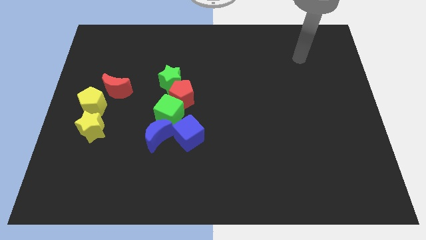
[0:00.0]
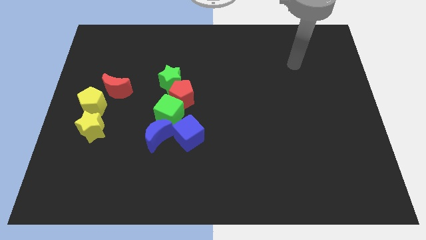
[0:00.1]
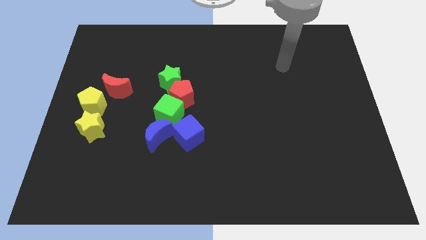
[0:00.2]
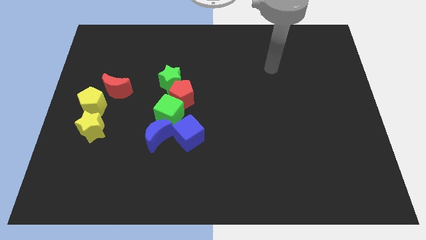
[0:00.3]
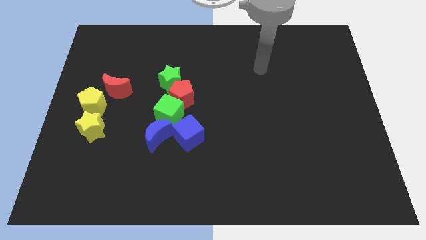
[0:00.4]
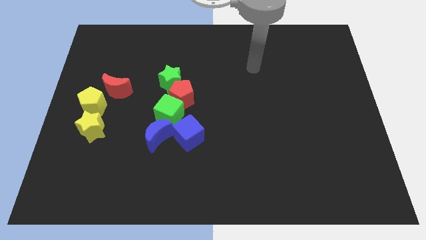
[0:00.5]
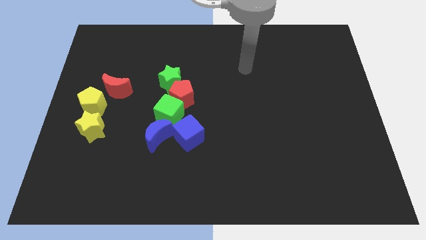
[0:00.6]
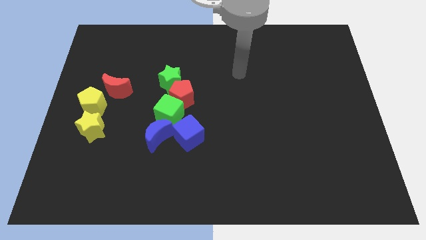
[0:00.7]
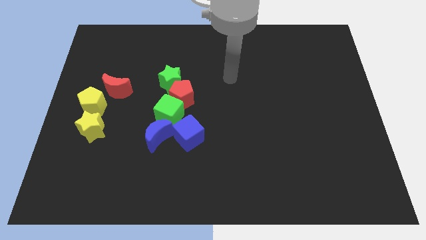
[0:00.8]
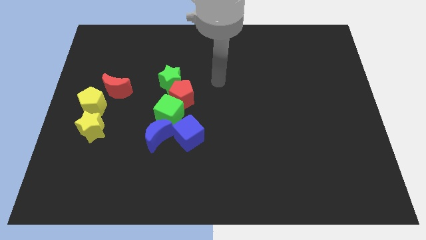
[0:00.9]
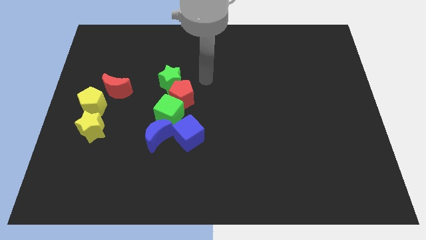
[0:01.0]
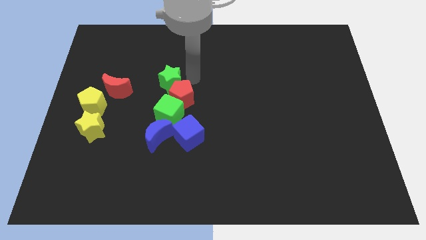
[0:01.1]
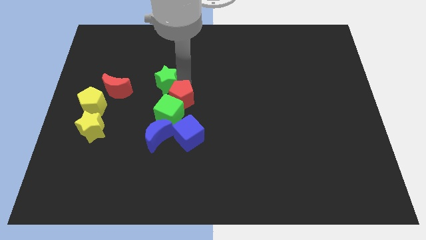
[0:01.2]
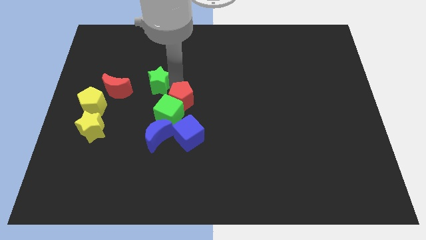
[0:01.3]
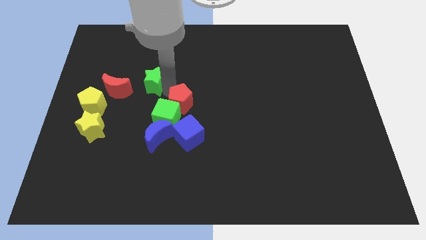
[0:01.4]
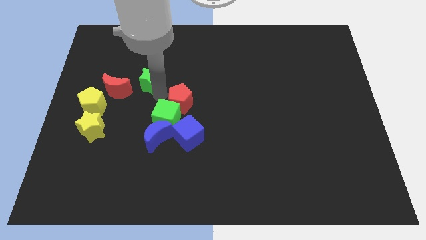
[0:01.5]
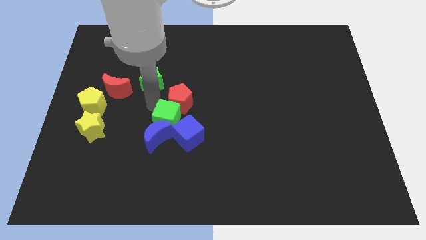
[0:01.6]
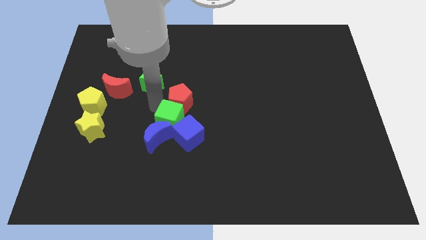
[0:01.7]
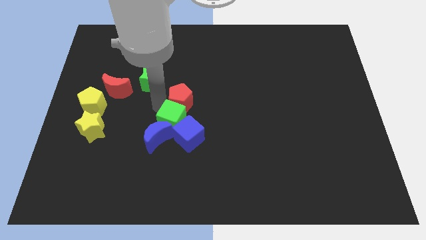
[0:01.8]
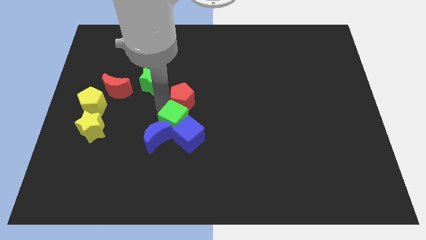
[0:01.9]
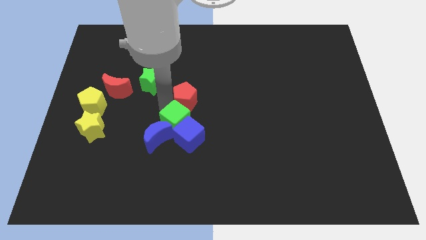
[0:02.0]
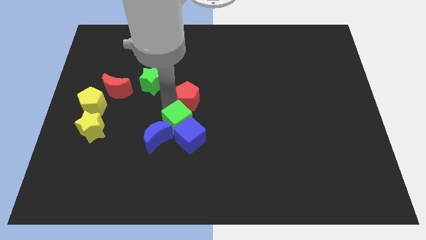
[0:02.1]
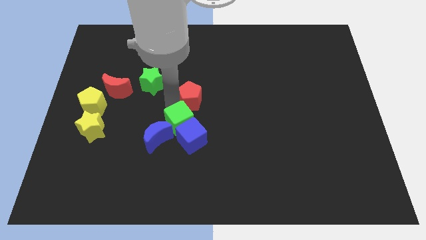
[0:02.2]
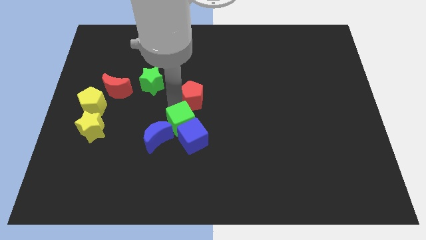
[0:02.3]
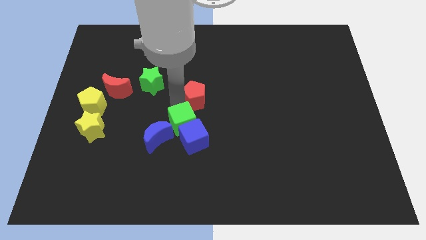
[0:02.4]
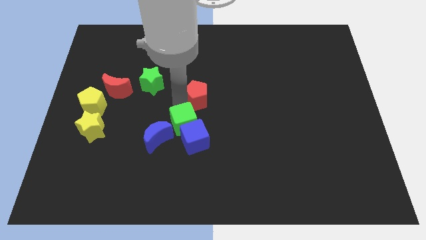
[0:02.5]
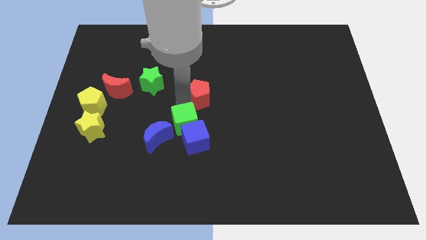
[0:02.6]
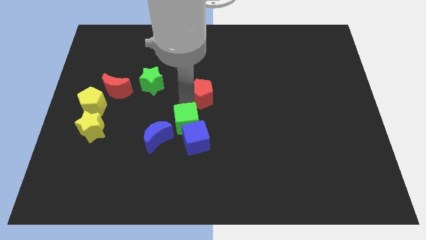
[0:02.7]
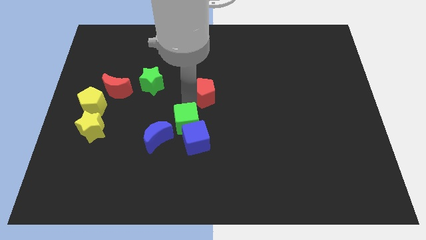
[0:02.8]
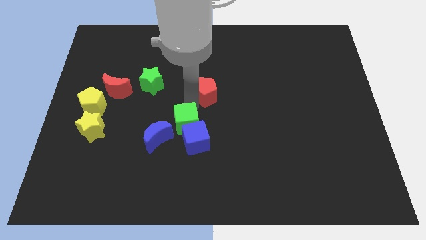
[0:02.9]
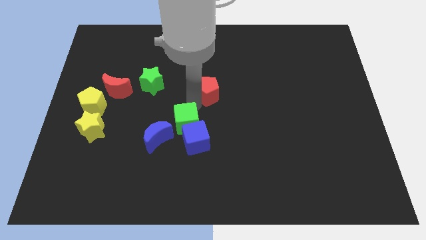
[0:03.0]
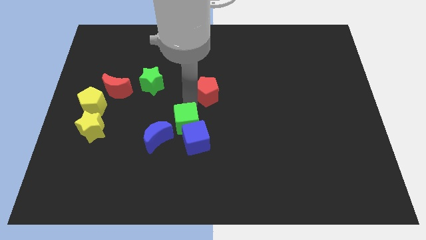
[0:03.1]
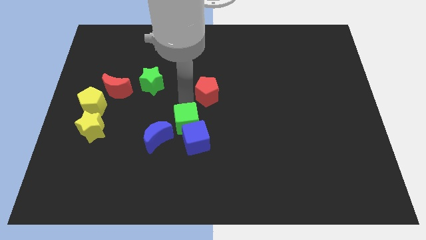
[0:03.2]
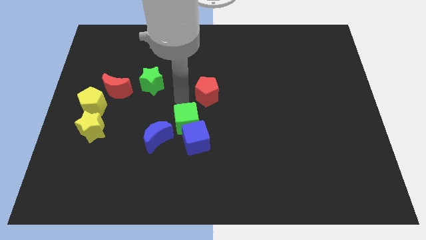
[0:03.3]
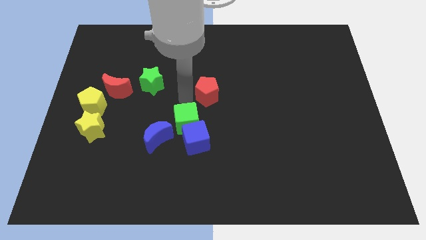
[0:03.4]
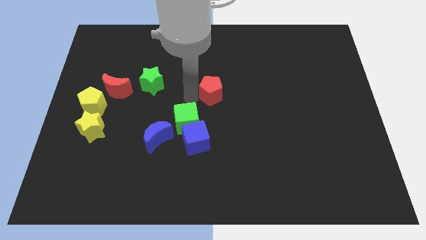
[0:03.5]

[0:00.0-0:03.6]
move the red pentagon away from the green cube and green star

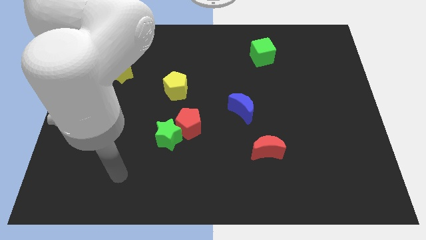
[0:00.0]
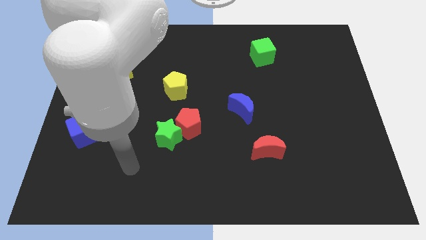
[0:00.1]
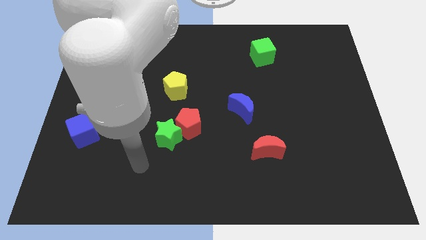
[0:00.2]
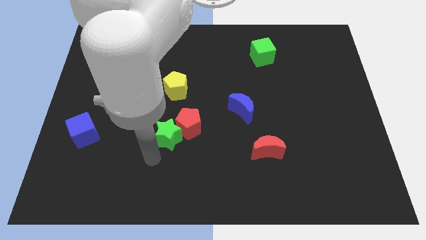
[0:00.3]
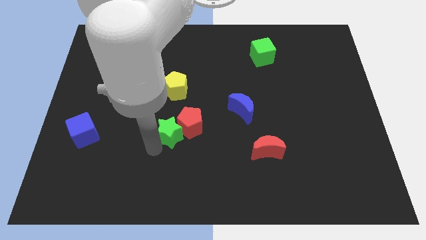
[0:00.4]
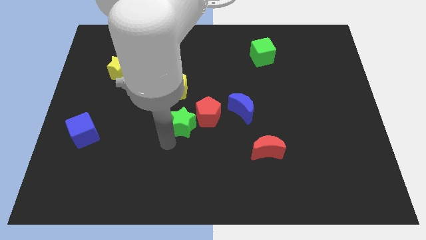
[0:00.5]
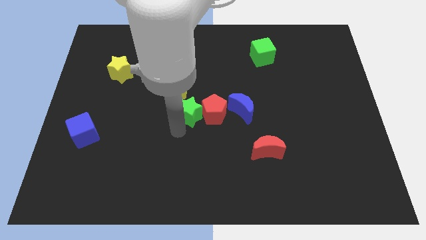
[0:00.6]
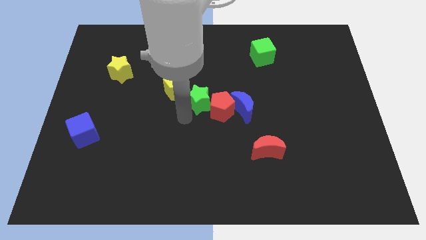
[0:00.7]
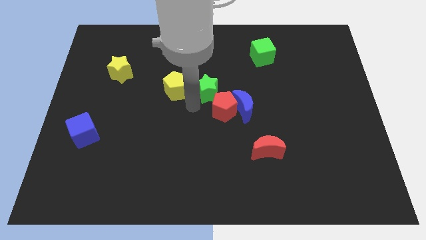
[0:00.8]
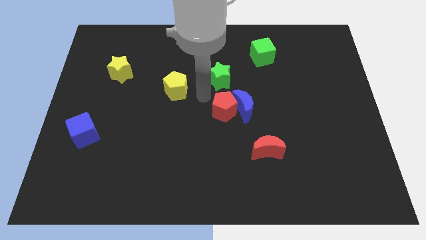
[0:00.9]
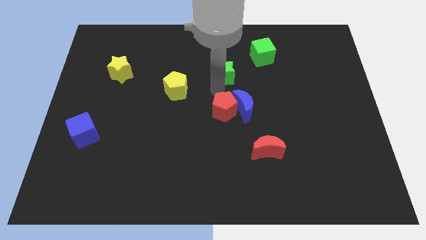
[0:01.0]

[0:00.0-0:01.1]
move the red pentagon away from the green star

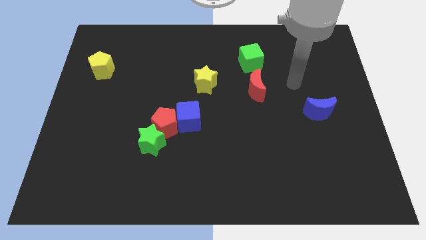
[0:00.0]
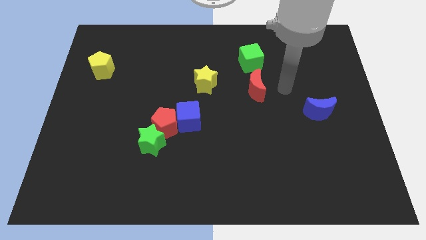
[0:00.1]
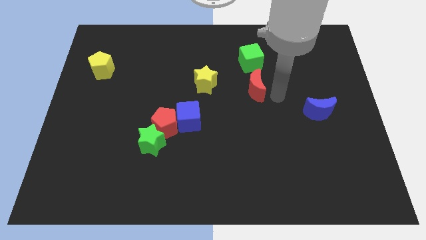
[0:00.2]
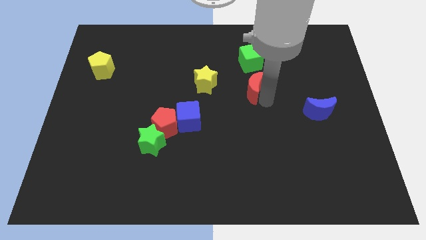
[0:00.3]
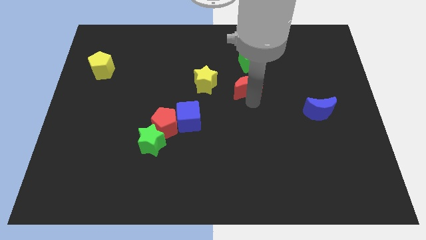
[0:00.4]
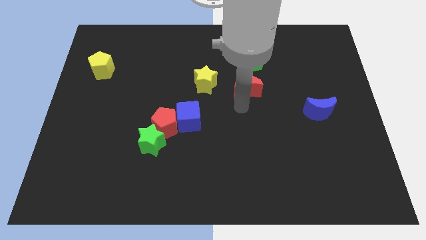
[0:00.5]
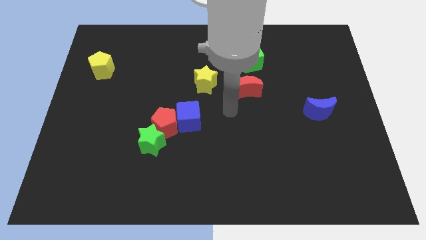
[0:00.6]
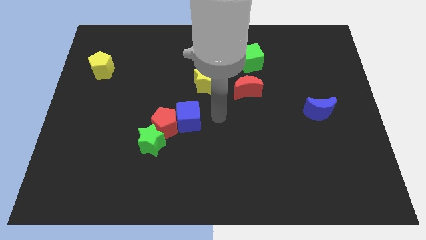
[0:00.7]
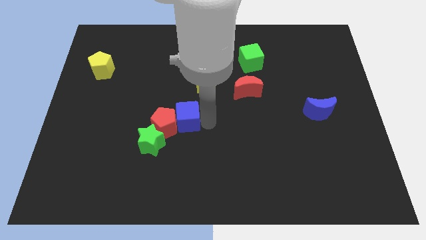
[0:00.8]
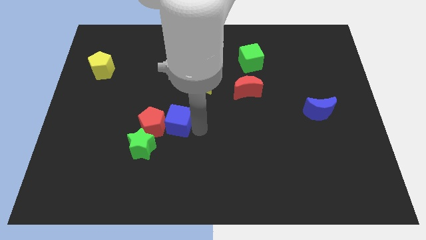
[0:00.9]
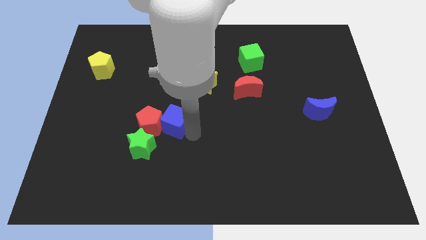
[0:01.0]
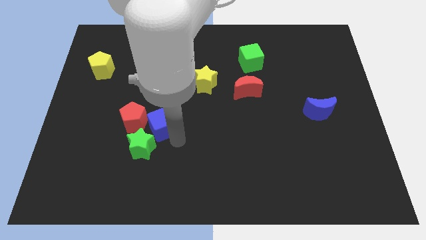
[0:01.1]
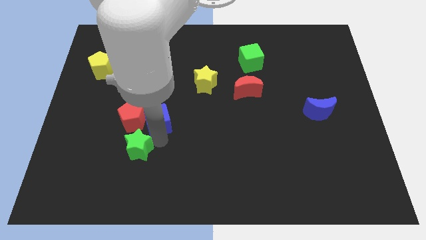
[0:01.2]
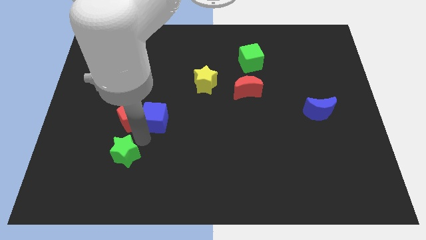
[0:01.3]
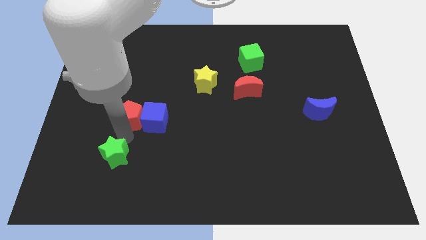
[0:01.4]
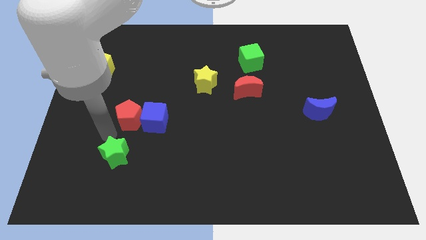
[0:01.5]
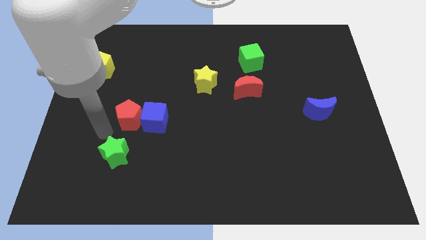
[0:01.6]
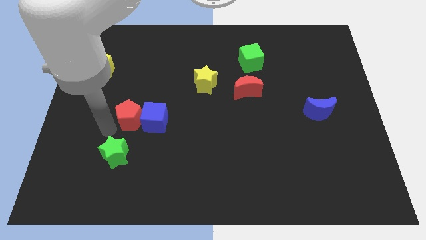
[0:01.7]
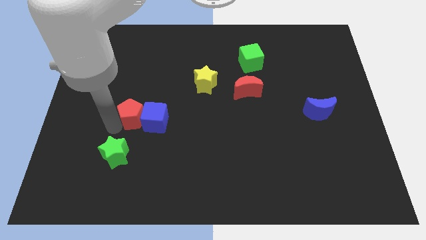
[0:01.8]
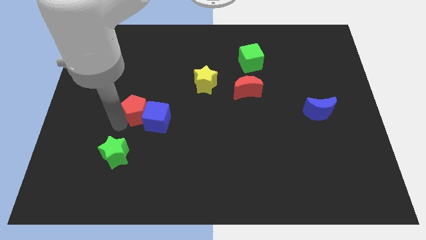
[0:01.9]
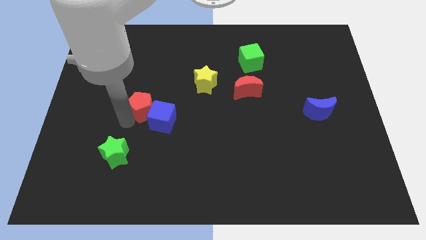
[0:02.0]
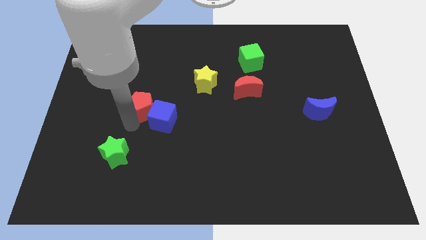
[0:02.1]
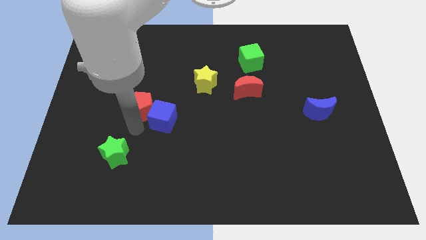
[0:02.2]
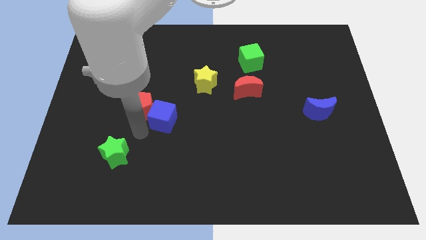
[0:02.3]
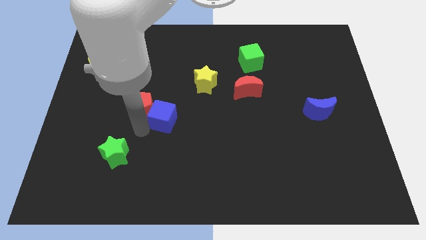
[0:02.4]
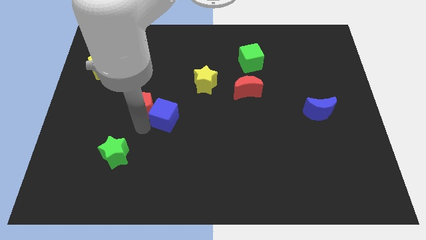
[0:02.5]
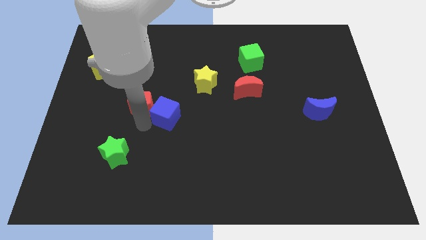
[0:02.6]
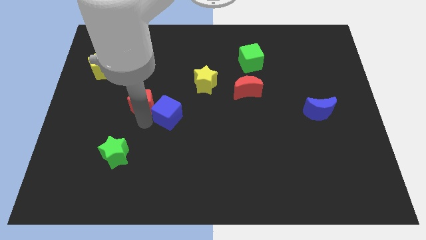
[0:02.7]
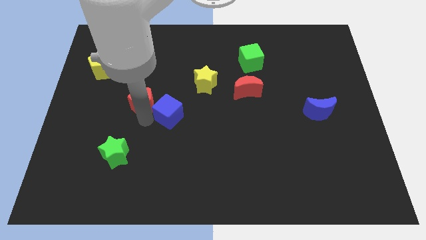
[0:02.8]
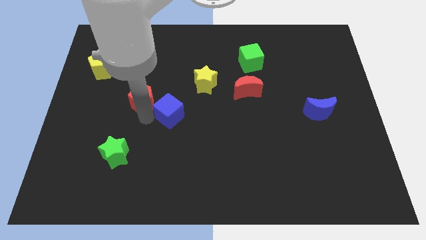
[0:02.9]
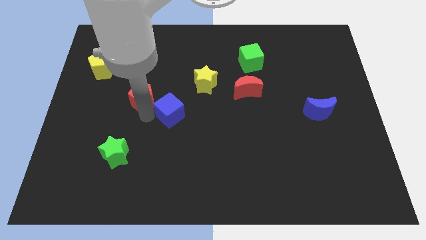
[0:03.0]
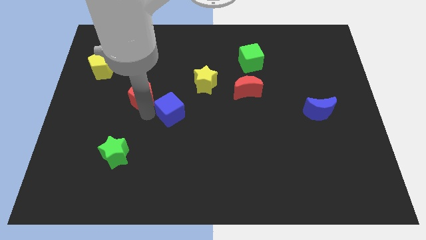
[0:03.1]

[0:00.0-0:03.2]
move the red pentagon away from the green star and blue cube

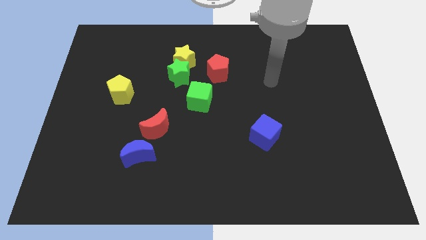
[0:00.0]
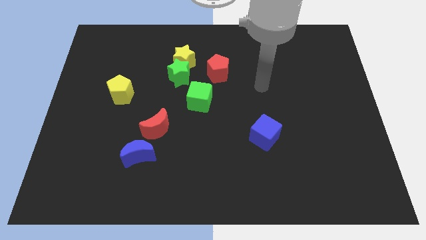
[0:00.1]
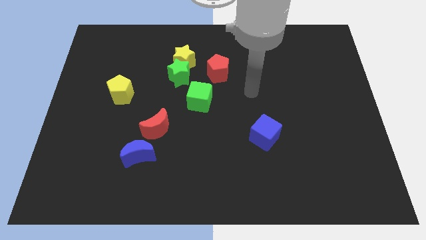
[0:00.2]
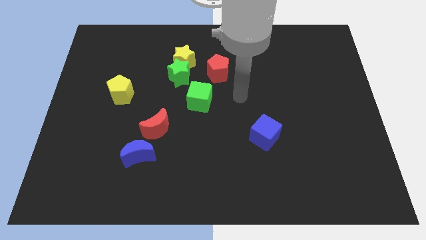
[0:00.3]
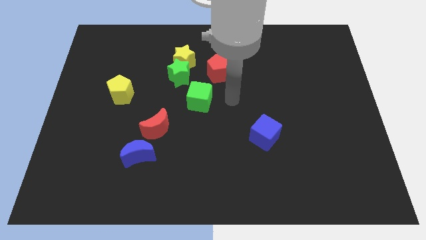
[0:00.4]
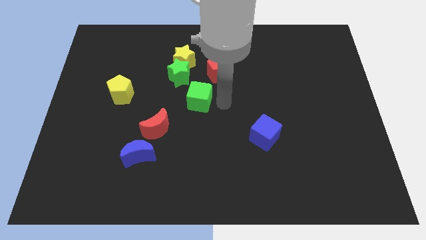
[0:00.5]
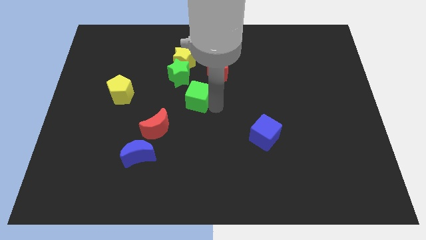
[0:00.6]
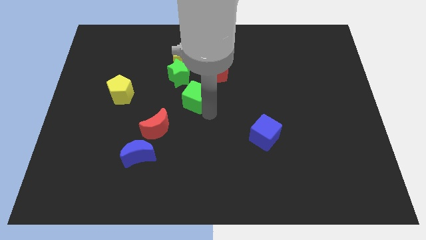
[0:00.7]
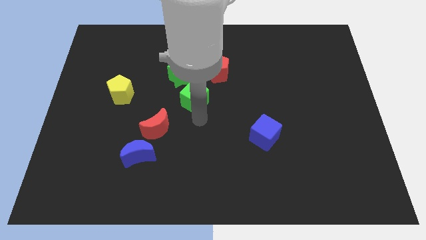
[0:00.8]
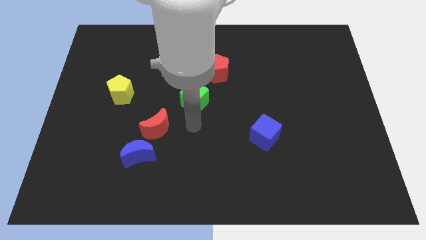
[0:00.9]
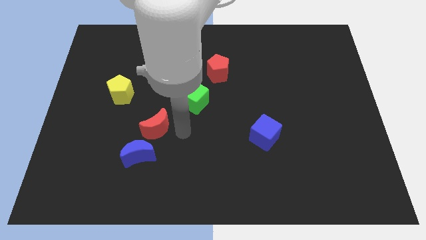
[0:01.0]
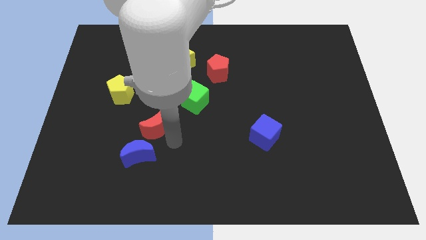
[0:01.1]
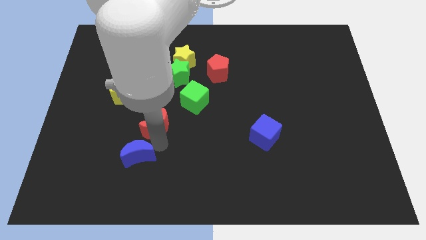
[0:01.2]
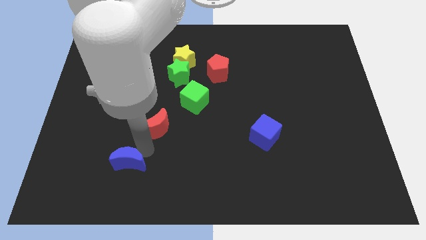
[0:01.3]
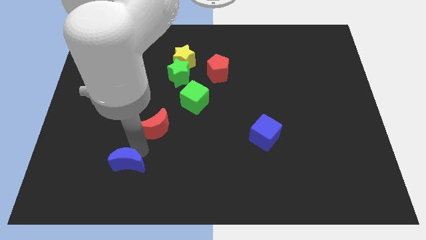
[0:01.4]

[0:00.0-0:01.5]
pull the red moon apart from the blue moon
